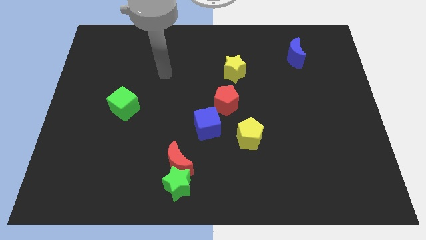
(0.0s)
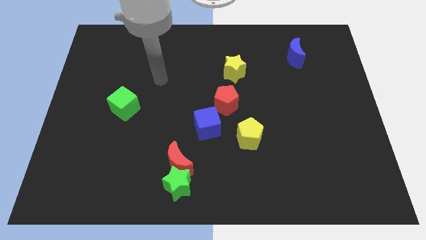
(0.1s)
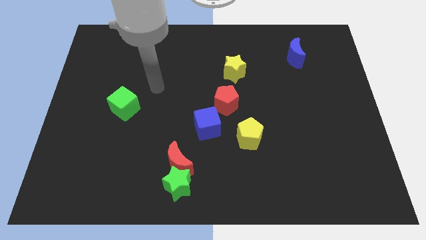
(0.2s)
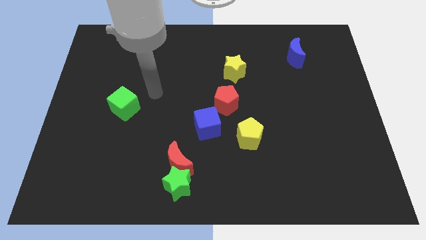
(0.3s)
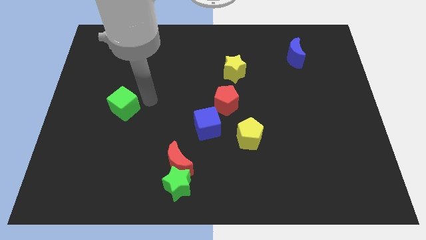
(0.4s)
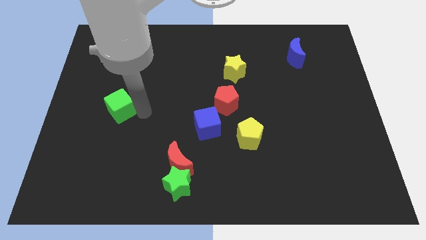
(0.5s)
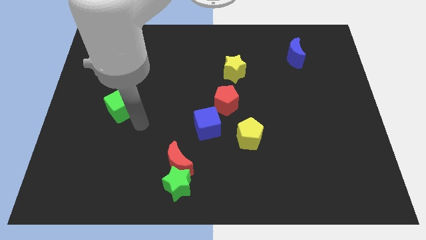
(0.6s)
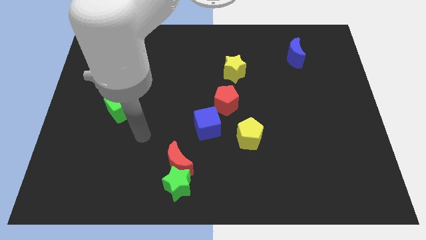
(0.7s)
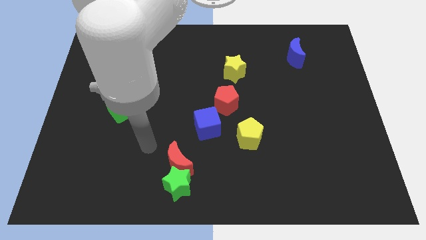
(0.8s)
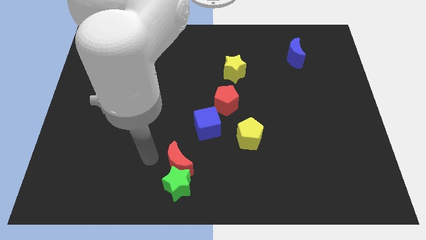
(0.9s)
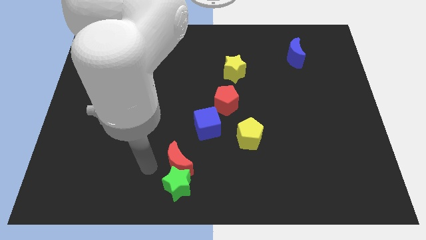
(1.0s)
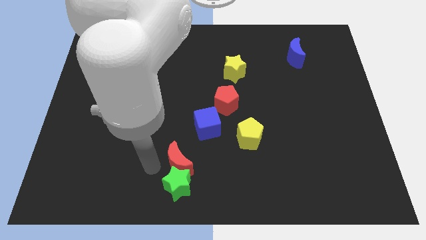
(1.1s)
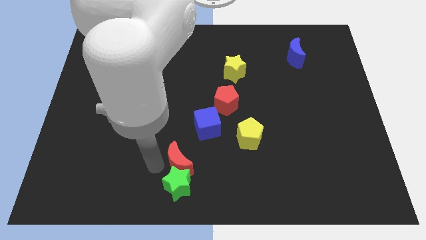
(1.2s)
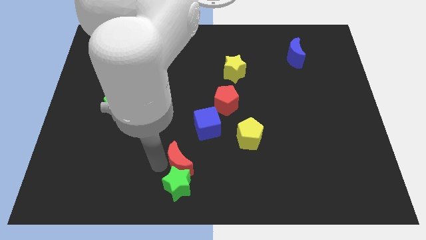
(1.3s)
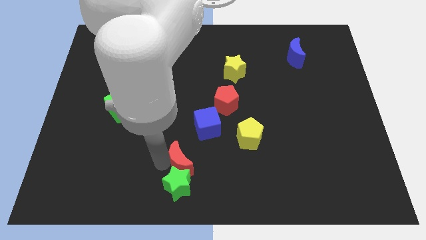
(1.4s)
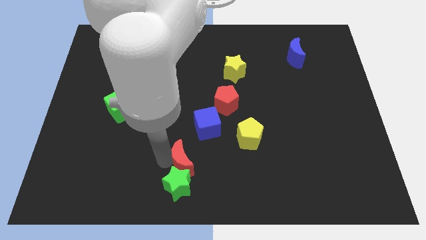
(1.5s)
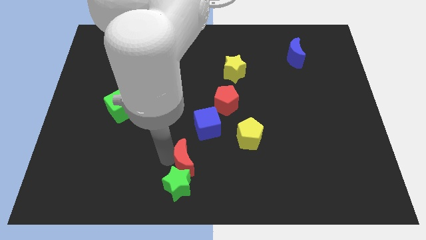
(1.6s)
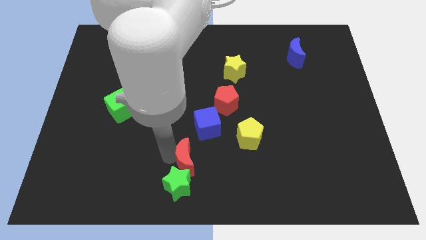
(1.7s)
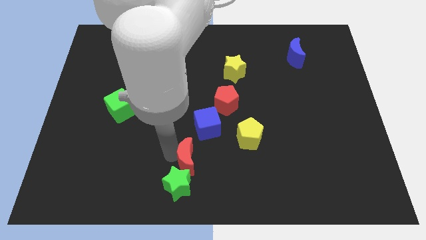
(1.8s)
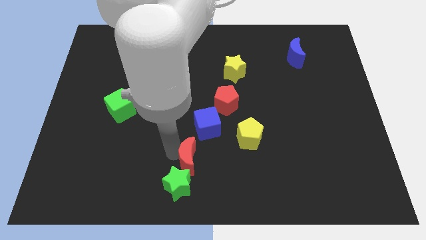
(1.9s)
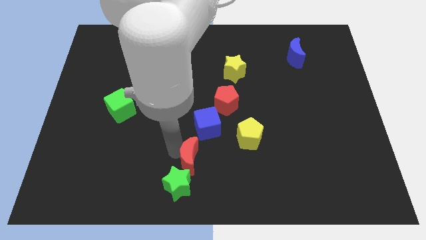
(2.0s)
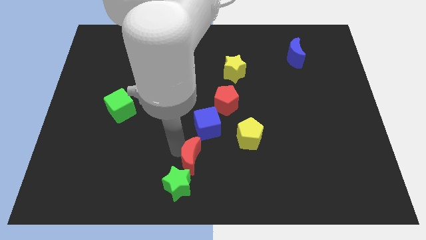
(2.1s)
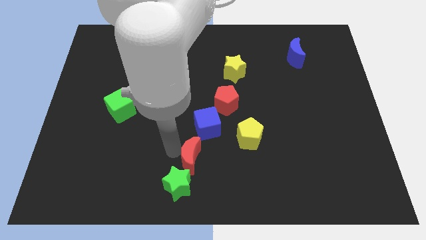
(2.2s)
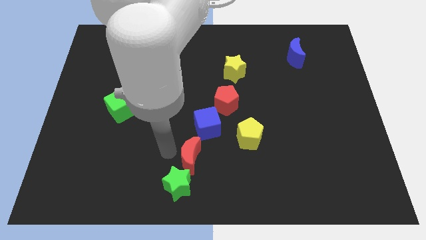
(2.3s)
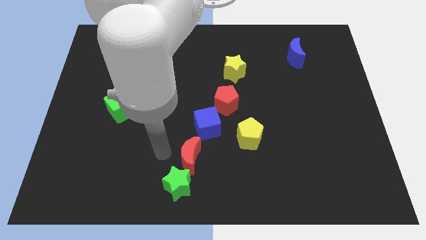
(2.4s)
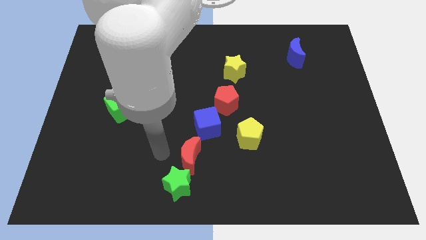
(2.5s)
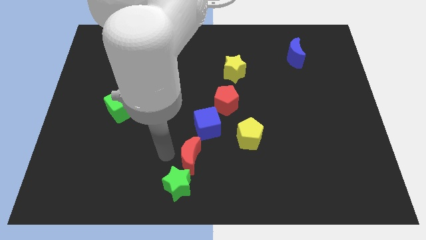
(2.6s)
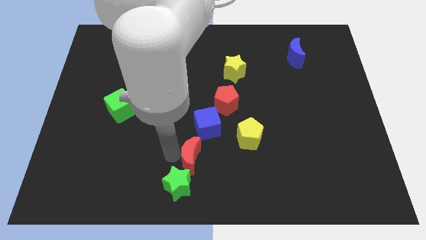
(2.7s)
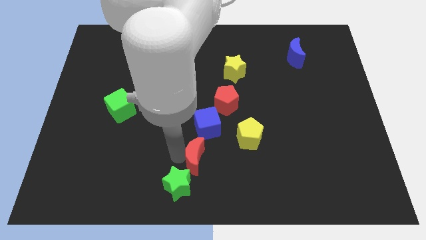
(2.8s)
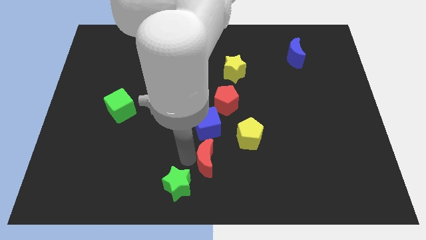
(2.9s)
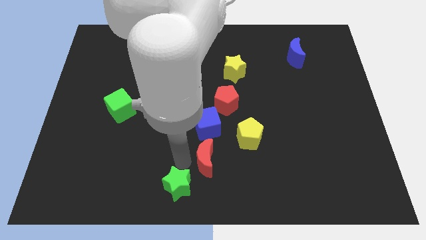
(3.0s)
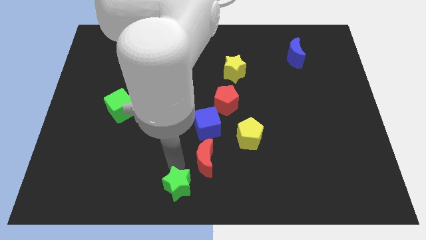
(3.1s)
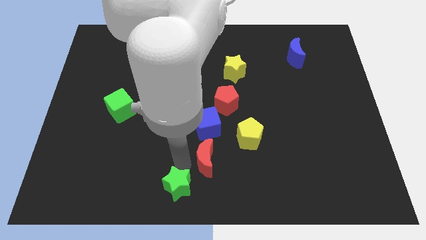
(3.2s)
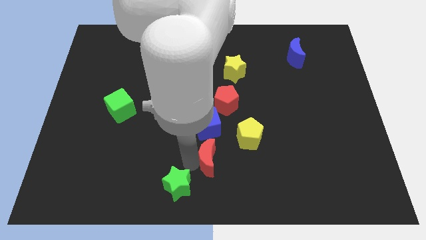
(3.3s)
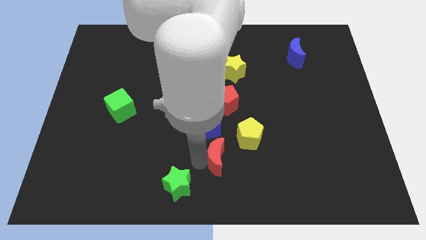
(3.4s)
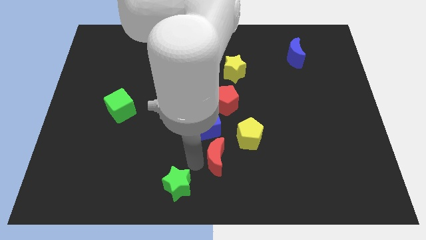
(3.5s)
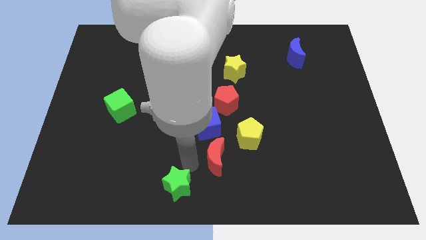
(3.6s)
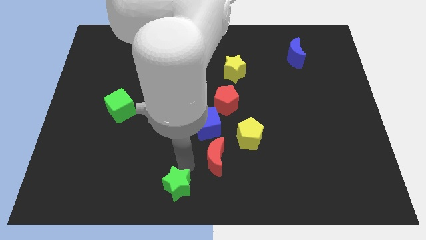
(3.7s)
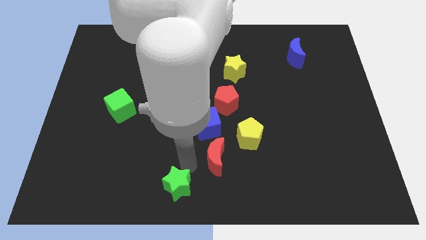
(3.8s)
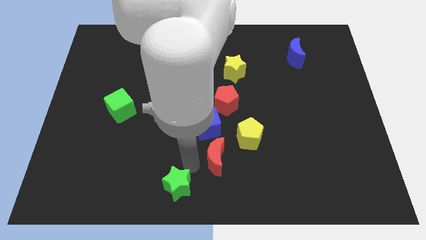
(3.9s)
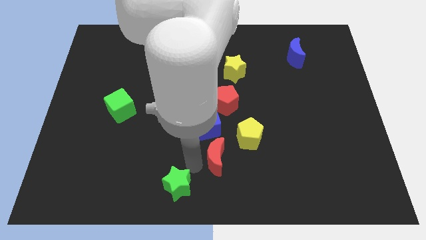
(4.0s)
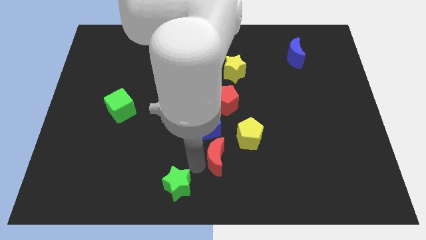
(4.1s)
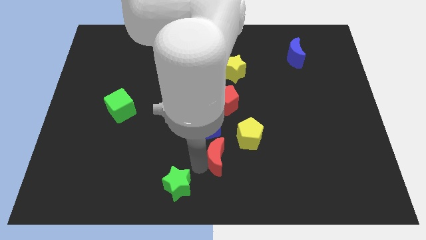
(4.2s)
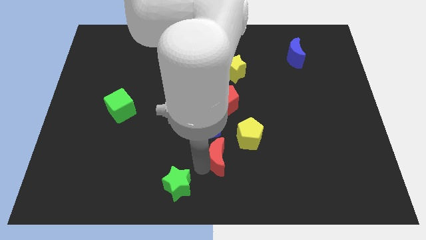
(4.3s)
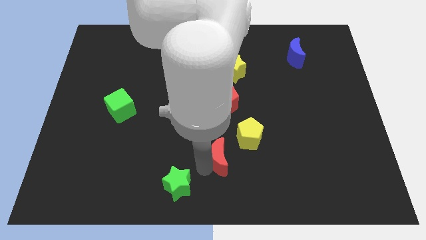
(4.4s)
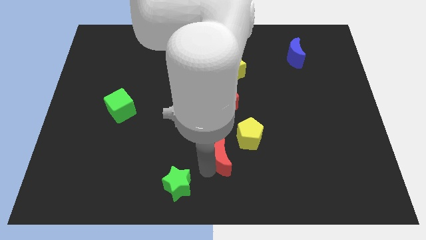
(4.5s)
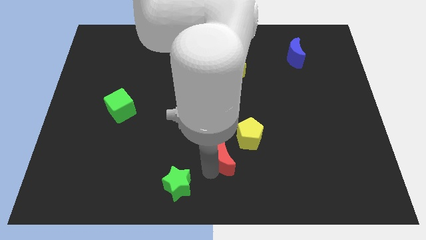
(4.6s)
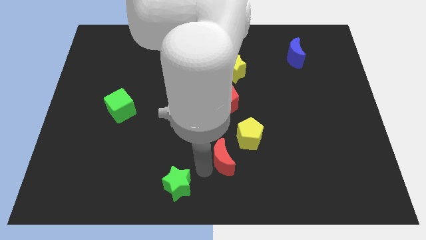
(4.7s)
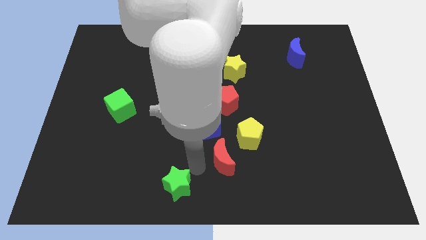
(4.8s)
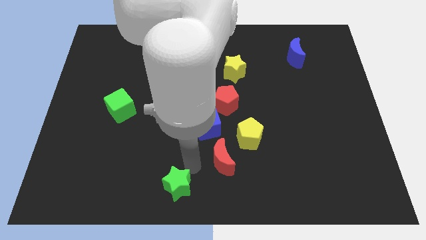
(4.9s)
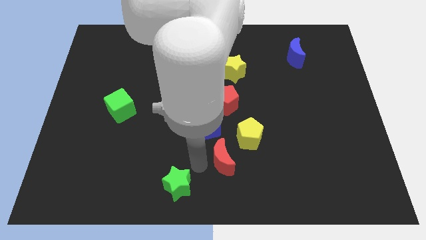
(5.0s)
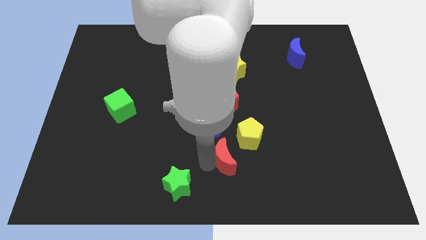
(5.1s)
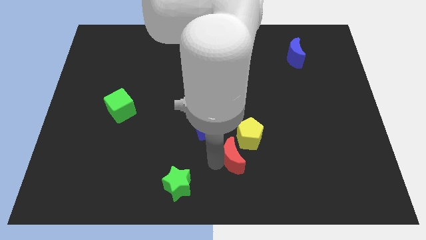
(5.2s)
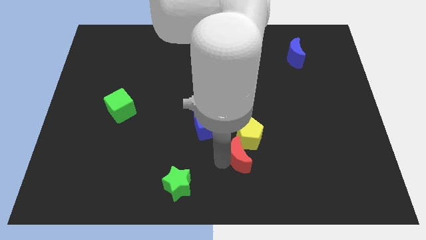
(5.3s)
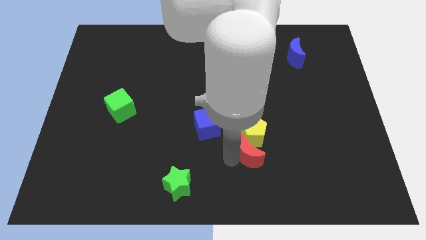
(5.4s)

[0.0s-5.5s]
put the red moon to the bottom right side of the yellow pentagon

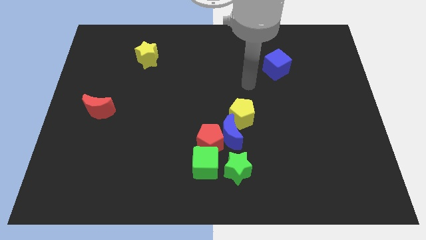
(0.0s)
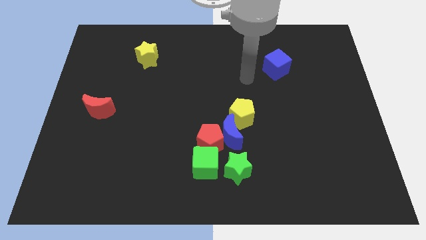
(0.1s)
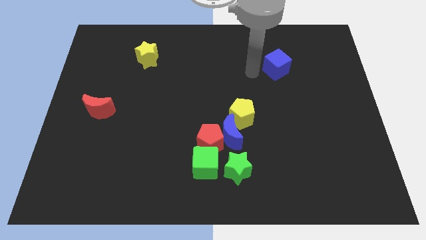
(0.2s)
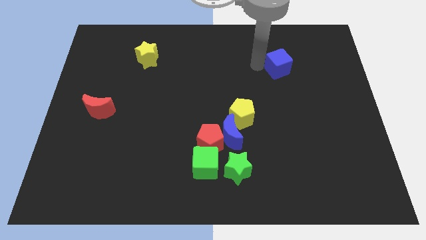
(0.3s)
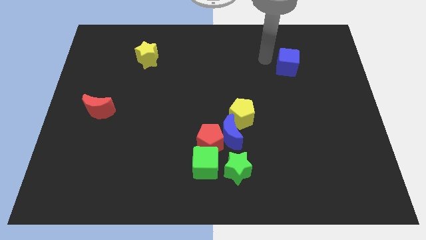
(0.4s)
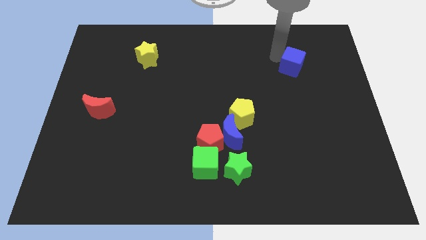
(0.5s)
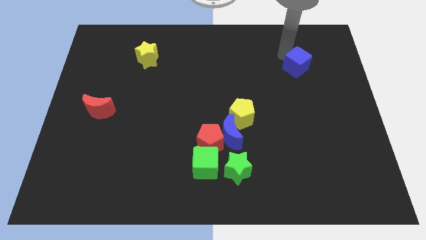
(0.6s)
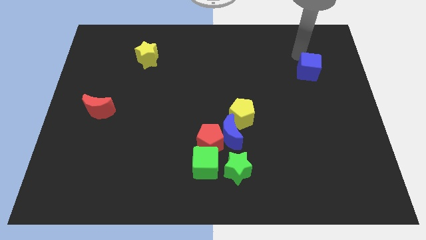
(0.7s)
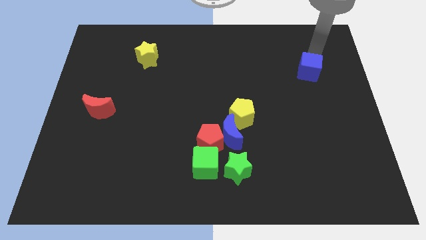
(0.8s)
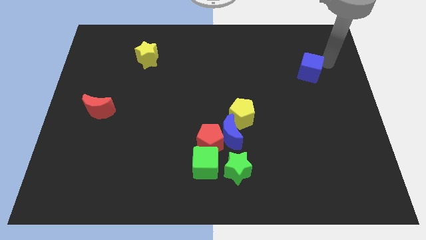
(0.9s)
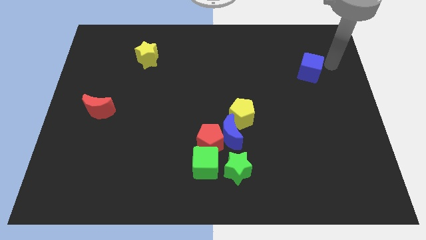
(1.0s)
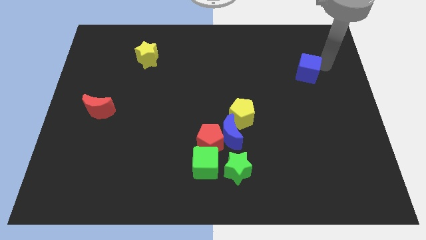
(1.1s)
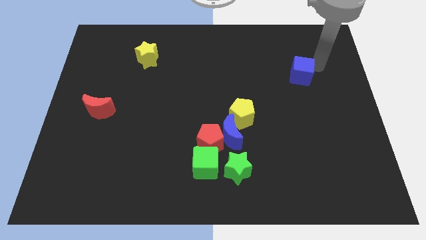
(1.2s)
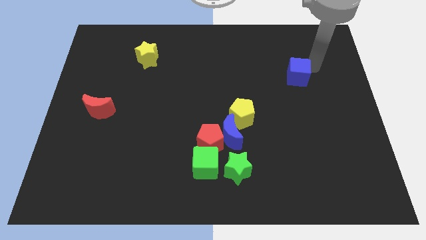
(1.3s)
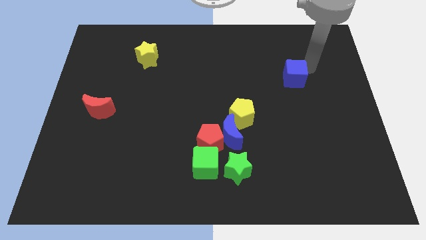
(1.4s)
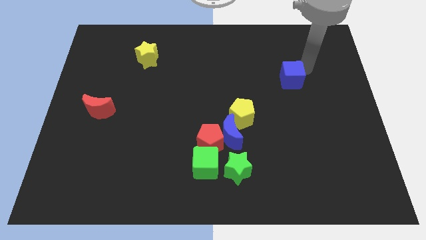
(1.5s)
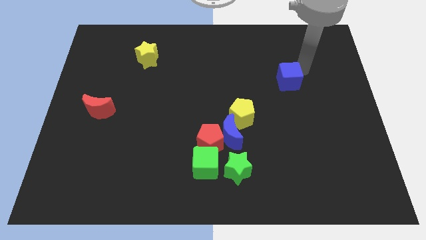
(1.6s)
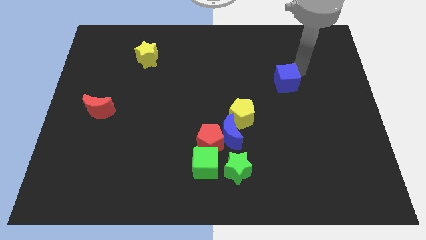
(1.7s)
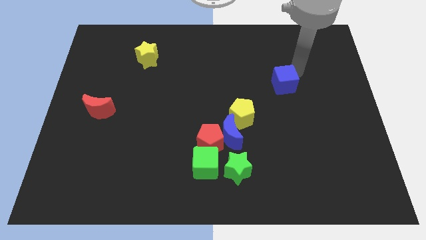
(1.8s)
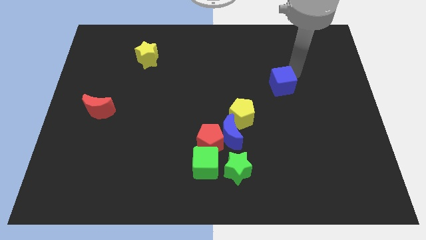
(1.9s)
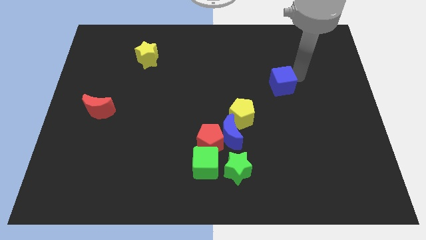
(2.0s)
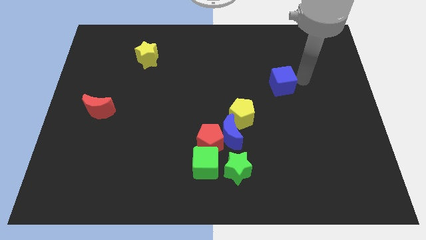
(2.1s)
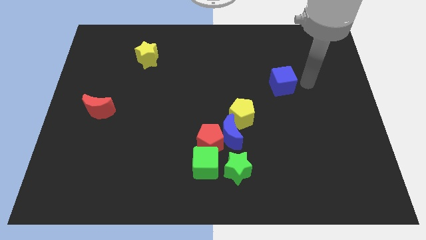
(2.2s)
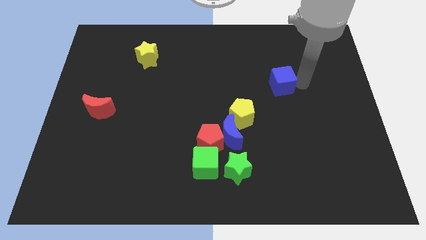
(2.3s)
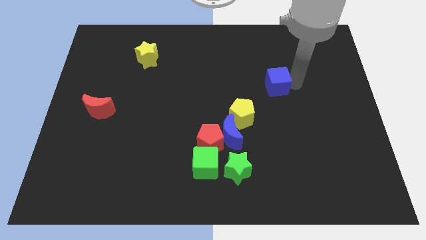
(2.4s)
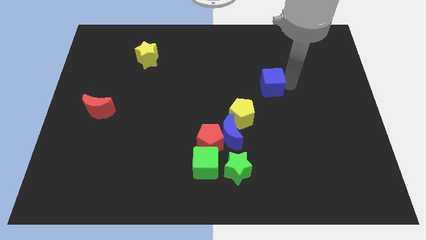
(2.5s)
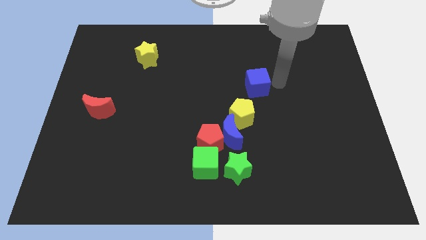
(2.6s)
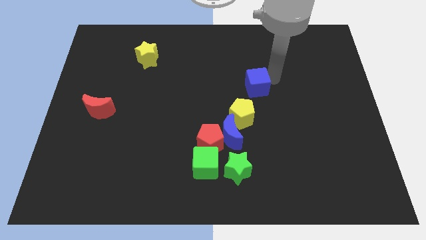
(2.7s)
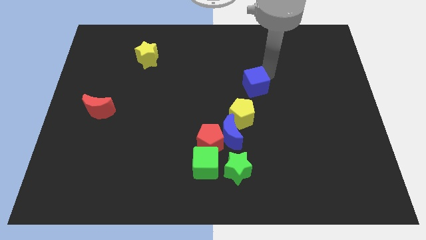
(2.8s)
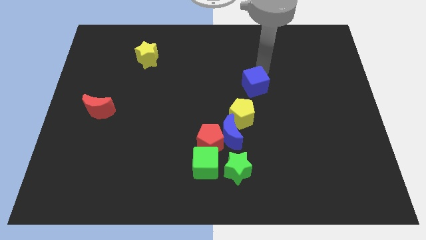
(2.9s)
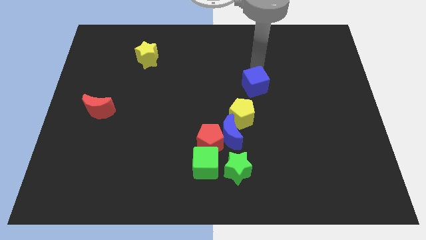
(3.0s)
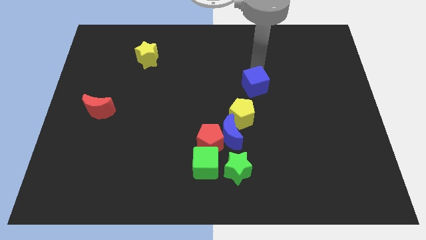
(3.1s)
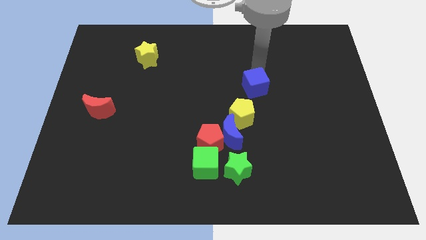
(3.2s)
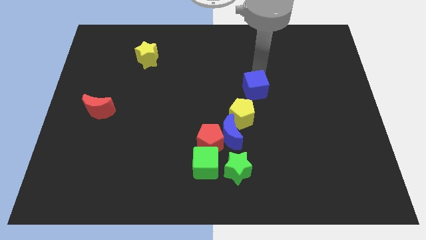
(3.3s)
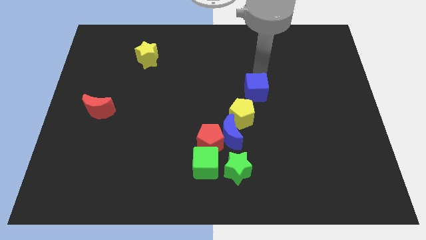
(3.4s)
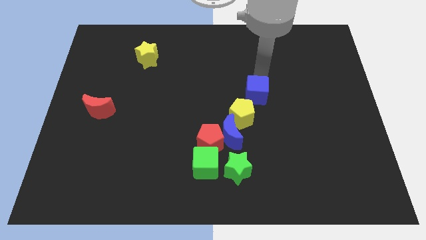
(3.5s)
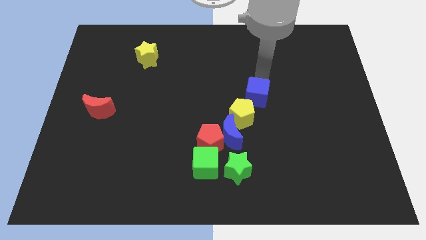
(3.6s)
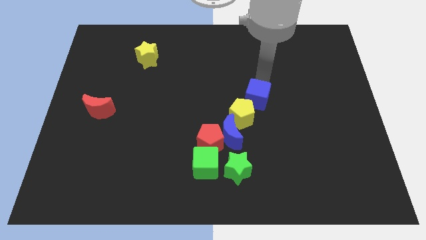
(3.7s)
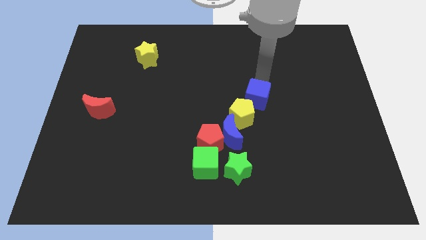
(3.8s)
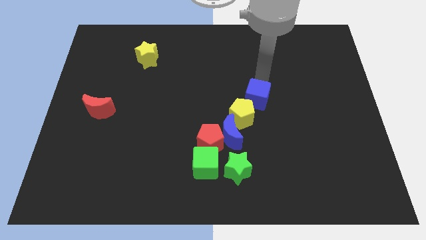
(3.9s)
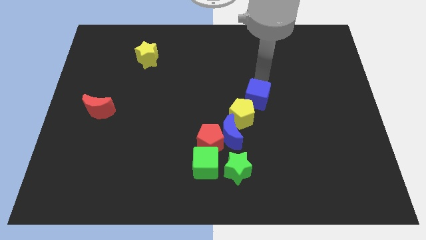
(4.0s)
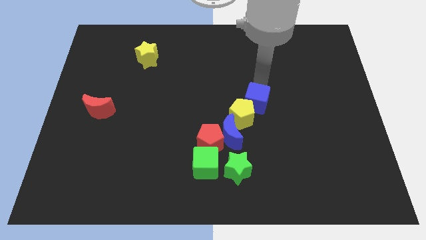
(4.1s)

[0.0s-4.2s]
slide the blue cube to the top right of the blue moon
